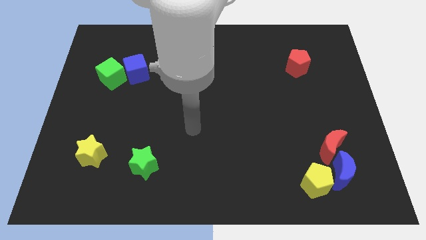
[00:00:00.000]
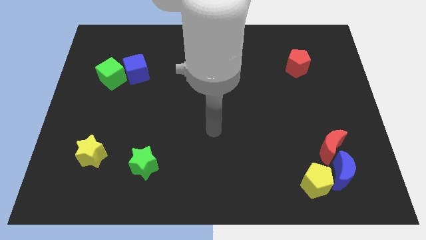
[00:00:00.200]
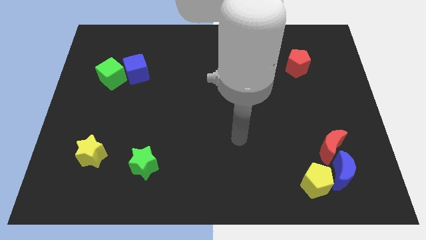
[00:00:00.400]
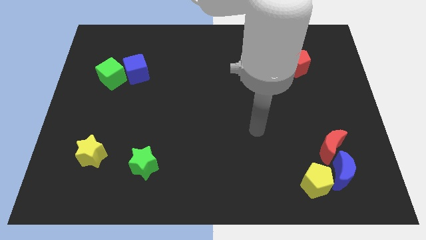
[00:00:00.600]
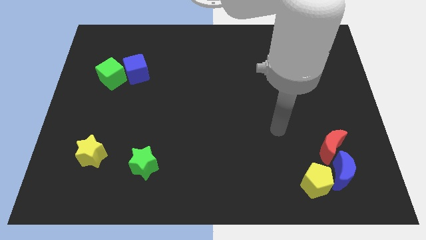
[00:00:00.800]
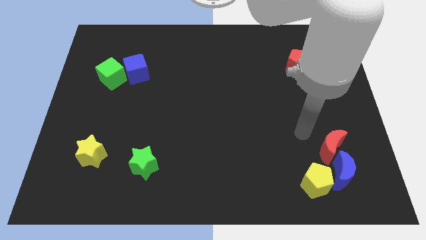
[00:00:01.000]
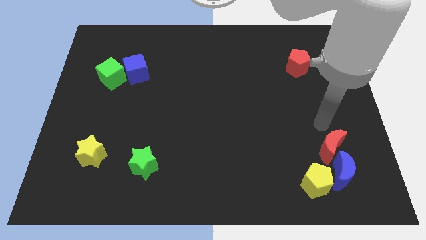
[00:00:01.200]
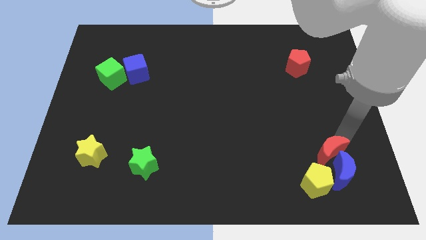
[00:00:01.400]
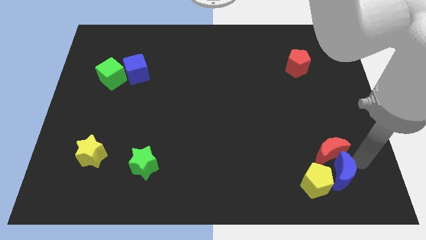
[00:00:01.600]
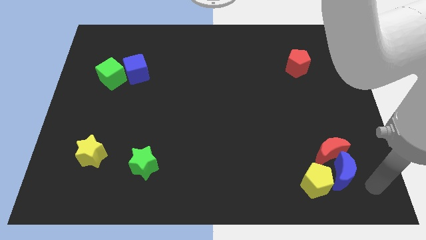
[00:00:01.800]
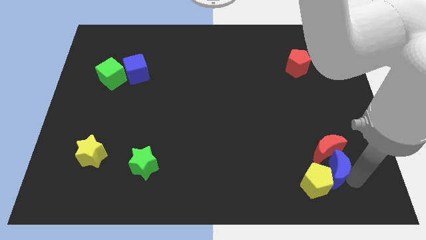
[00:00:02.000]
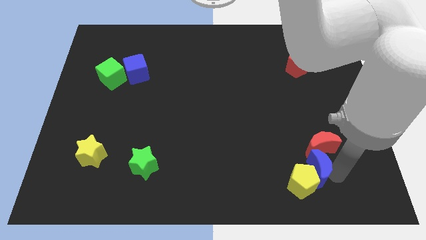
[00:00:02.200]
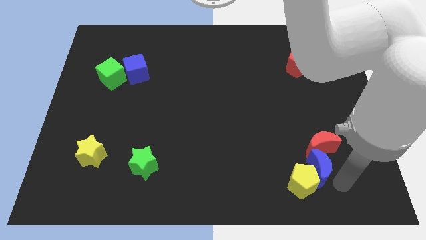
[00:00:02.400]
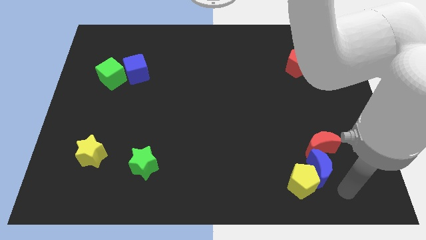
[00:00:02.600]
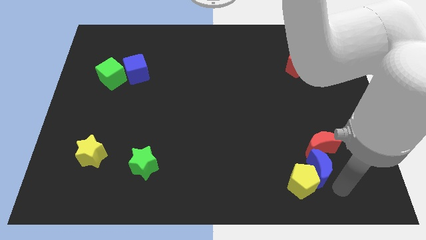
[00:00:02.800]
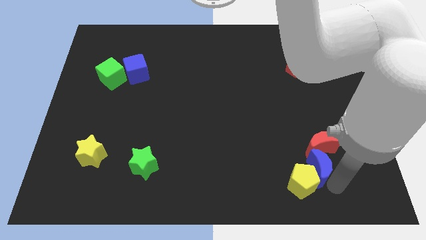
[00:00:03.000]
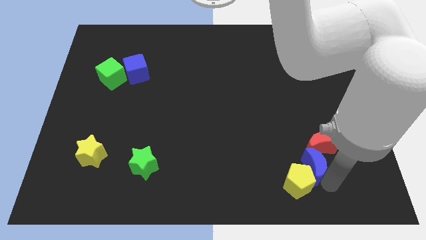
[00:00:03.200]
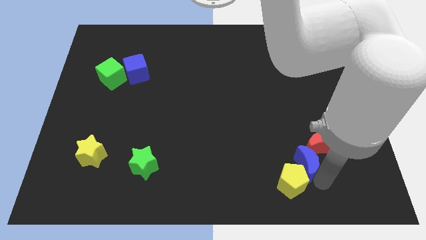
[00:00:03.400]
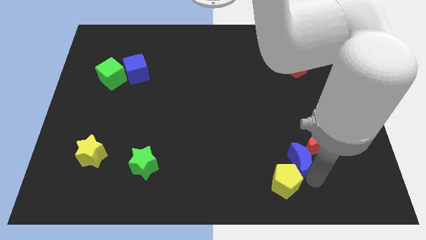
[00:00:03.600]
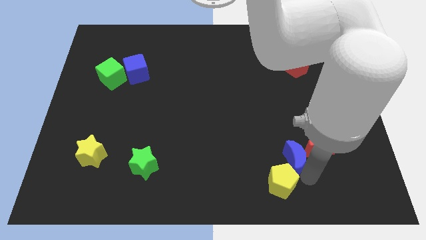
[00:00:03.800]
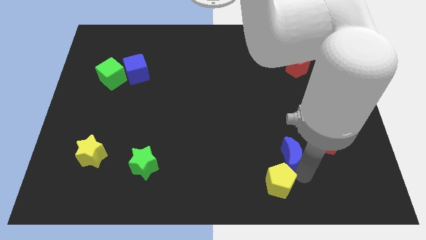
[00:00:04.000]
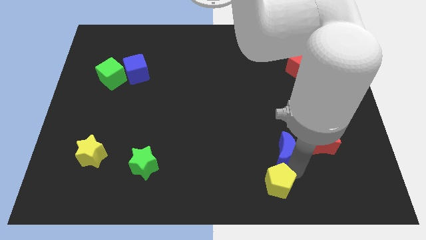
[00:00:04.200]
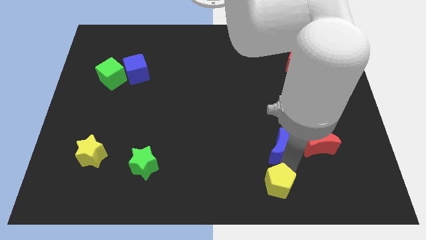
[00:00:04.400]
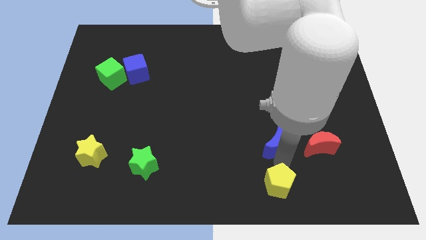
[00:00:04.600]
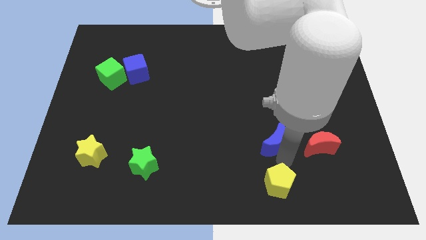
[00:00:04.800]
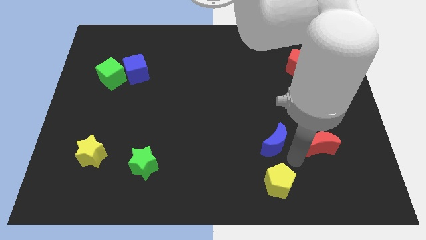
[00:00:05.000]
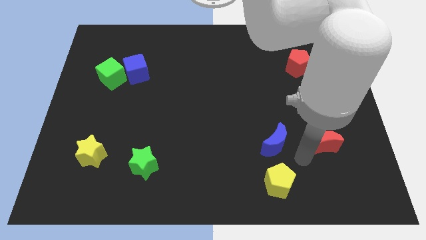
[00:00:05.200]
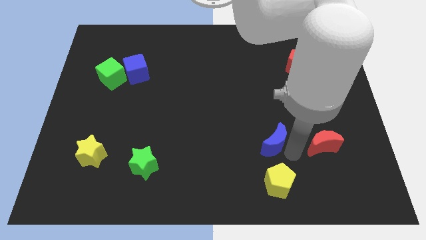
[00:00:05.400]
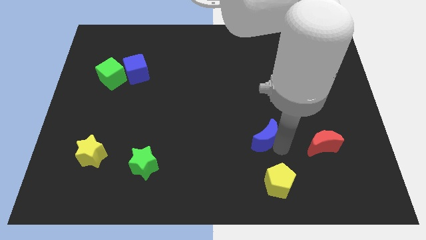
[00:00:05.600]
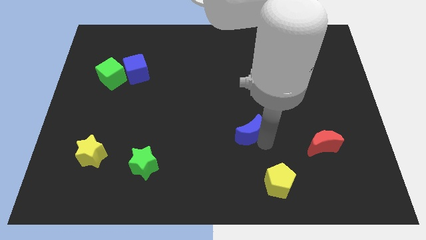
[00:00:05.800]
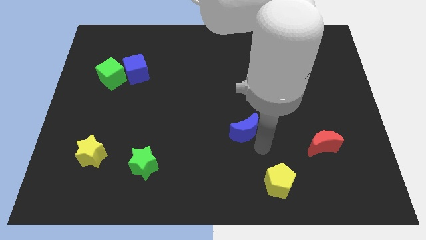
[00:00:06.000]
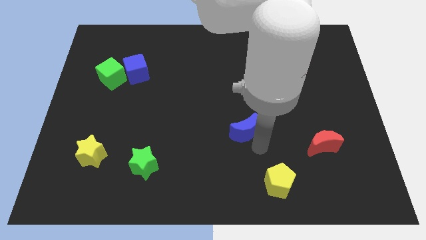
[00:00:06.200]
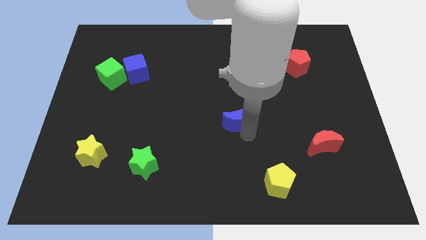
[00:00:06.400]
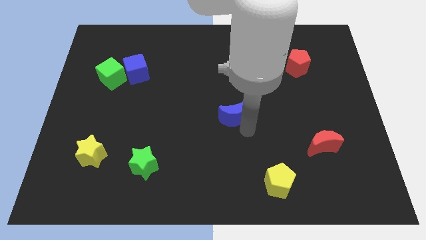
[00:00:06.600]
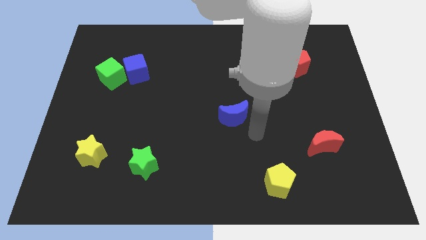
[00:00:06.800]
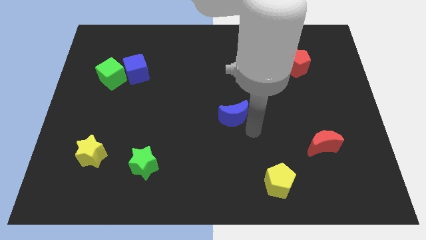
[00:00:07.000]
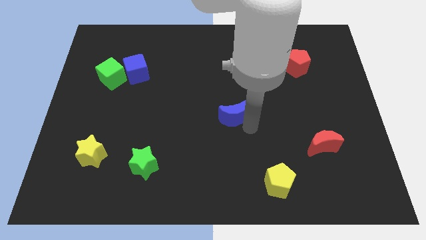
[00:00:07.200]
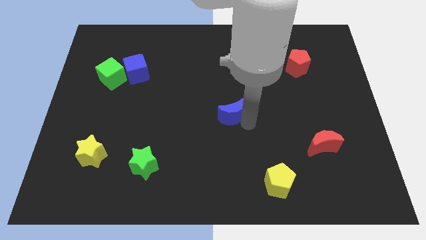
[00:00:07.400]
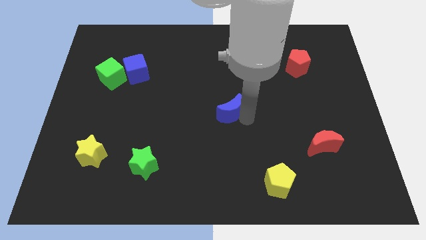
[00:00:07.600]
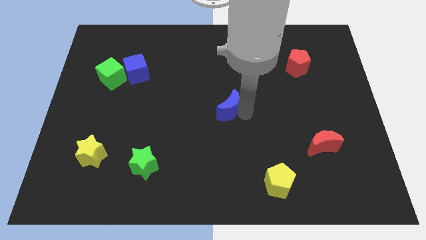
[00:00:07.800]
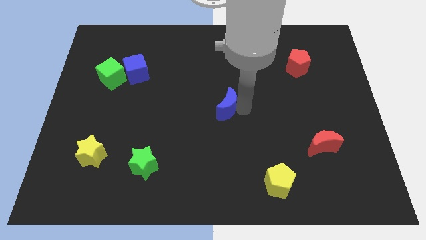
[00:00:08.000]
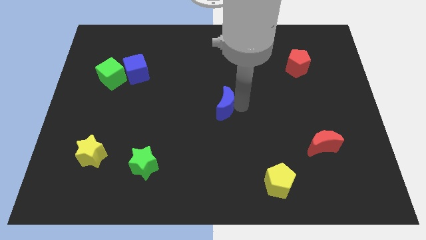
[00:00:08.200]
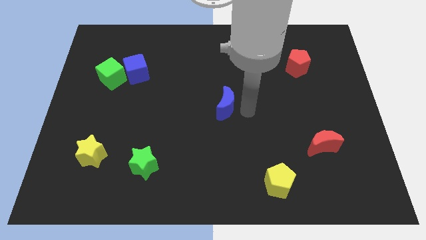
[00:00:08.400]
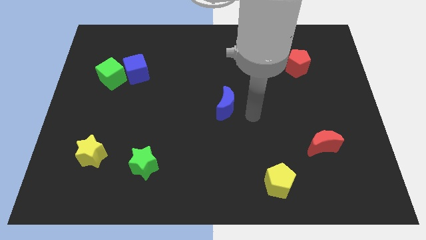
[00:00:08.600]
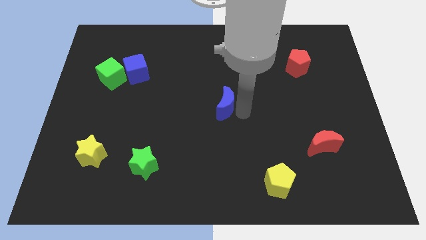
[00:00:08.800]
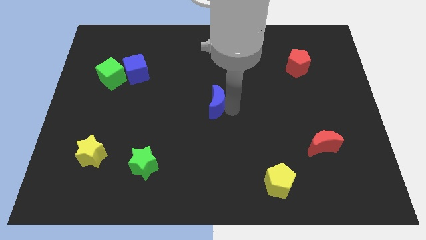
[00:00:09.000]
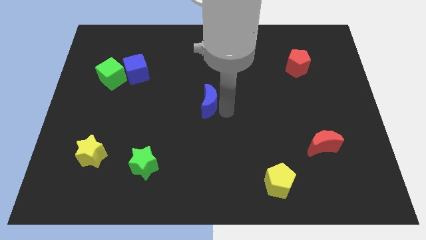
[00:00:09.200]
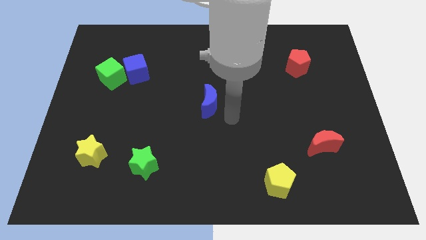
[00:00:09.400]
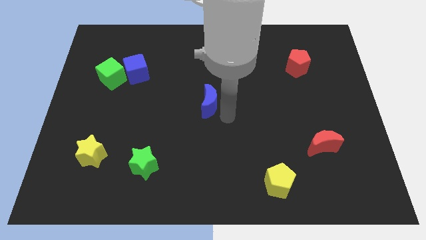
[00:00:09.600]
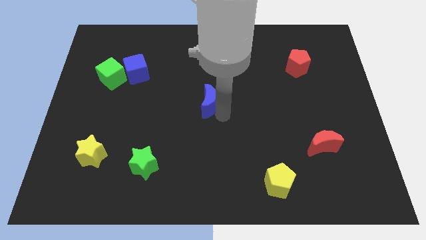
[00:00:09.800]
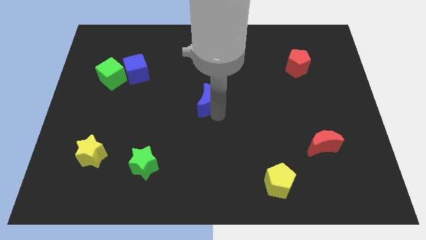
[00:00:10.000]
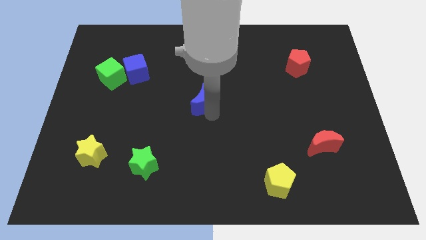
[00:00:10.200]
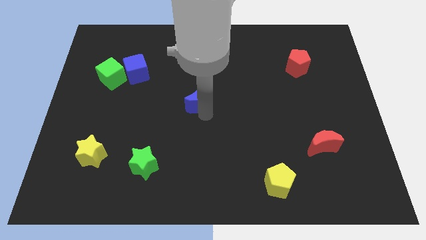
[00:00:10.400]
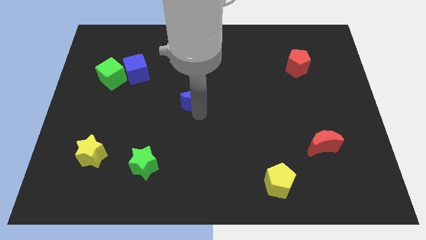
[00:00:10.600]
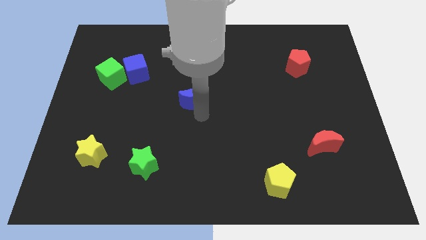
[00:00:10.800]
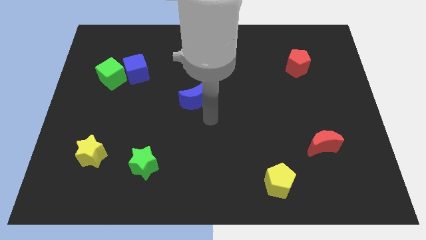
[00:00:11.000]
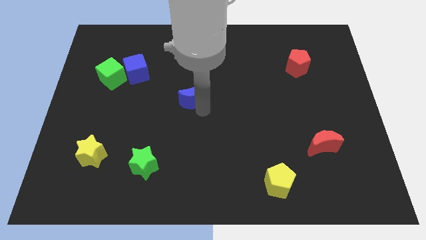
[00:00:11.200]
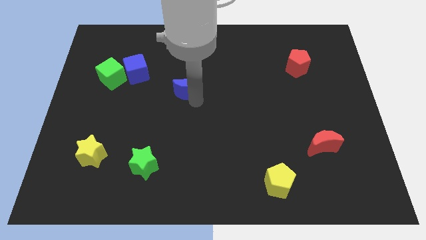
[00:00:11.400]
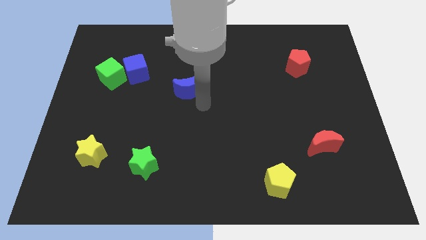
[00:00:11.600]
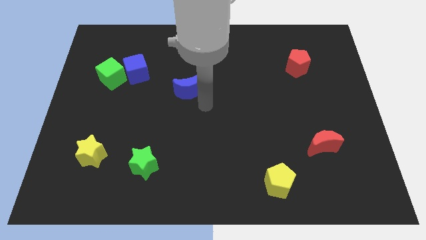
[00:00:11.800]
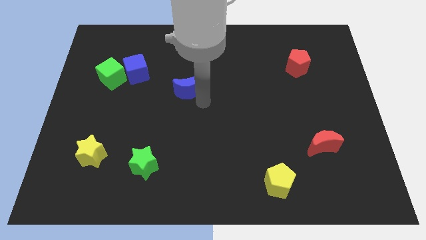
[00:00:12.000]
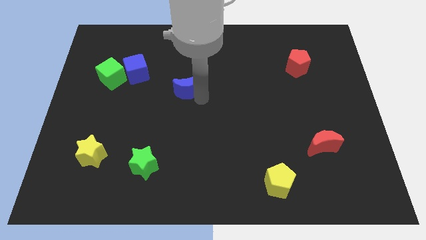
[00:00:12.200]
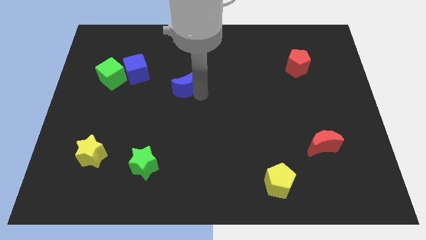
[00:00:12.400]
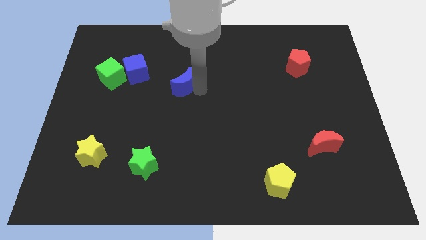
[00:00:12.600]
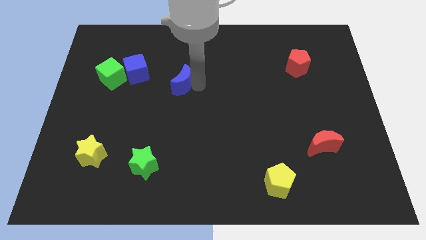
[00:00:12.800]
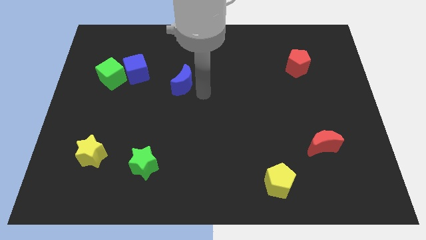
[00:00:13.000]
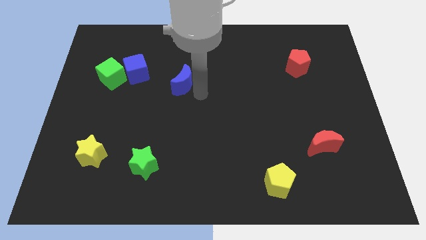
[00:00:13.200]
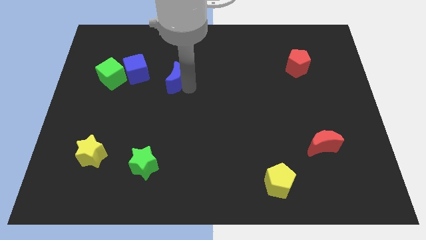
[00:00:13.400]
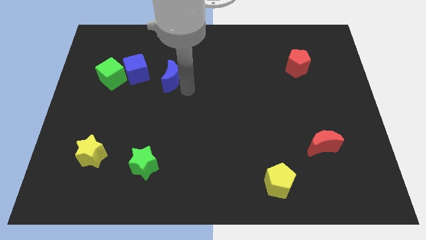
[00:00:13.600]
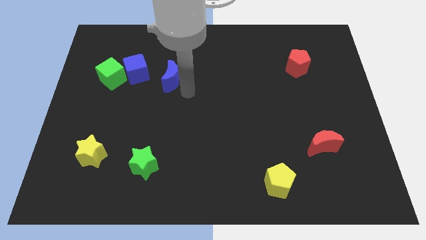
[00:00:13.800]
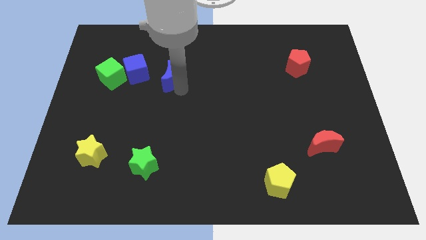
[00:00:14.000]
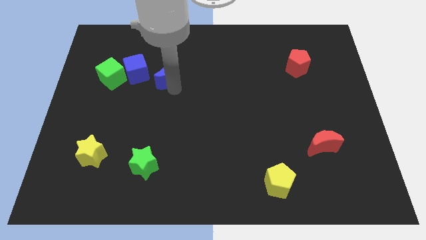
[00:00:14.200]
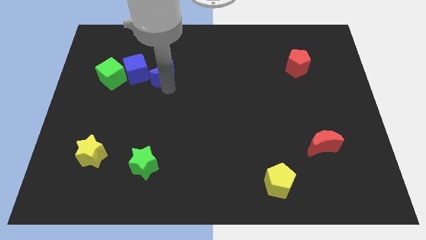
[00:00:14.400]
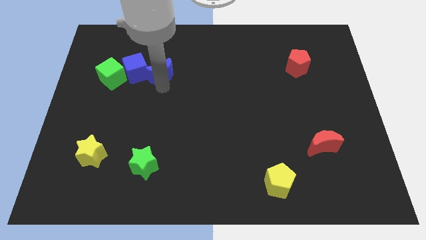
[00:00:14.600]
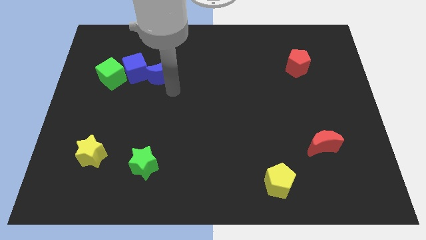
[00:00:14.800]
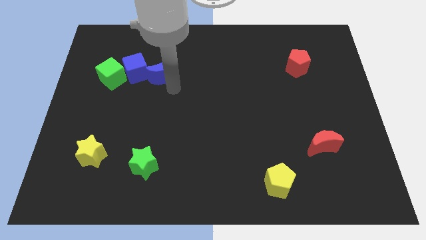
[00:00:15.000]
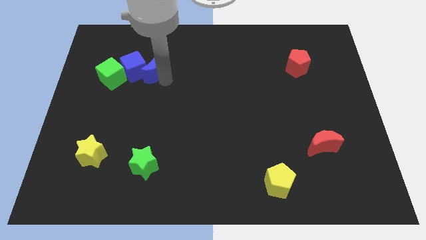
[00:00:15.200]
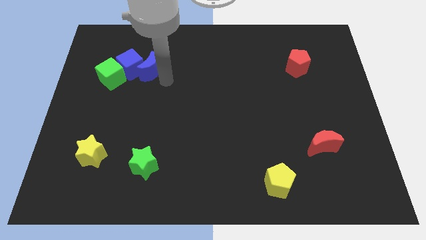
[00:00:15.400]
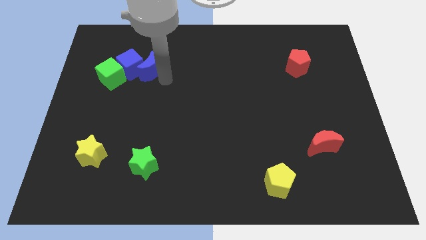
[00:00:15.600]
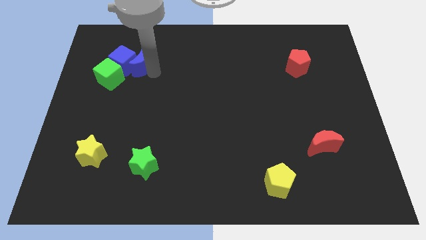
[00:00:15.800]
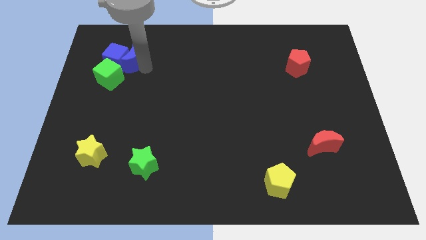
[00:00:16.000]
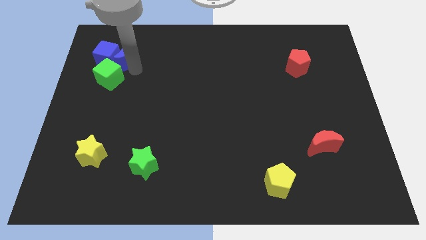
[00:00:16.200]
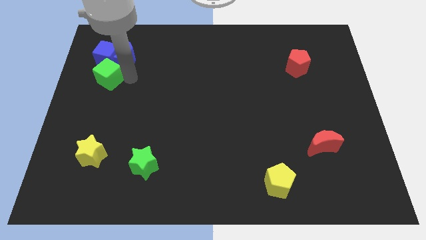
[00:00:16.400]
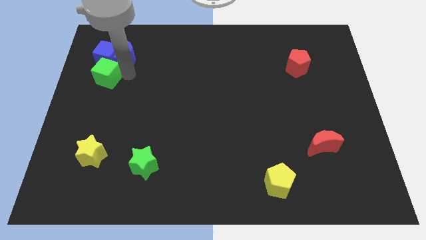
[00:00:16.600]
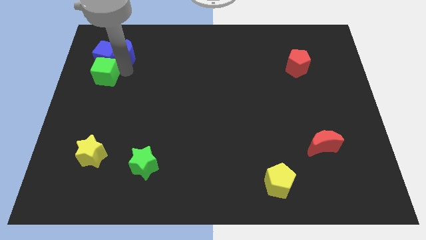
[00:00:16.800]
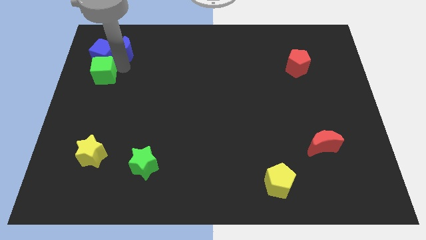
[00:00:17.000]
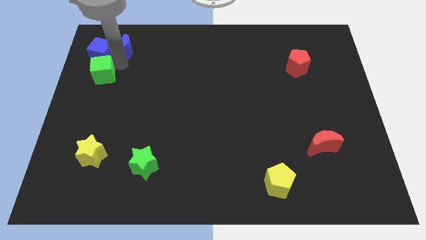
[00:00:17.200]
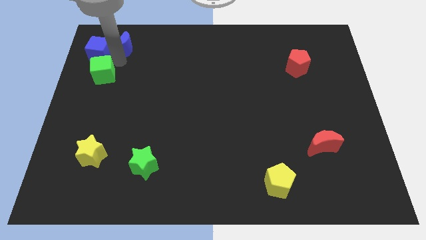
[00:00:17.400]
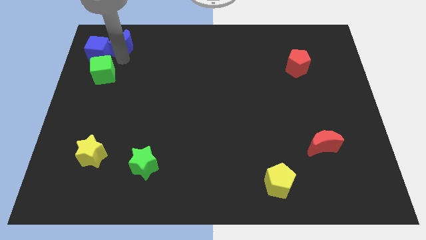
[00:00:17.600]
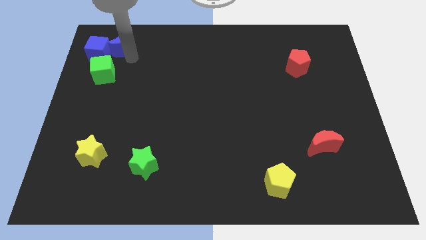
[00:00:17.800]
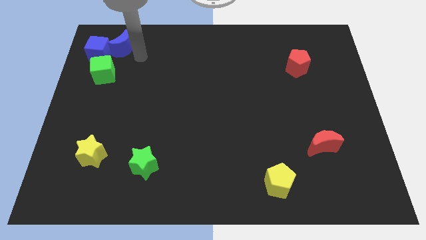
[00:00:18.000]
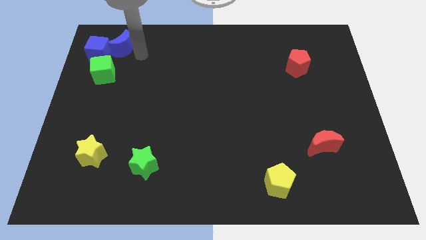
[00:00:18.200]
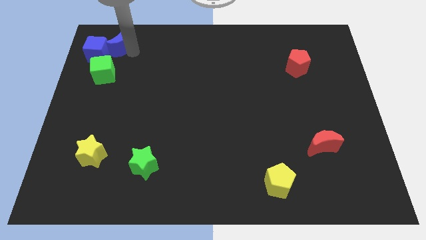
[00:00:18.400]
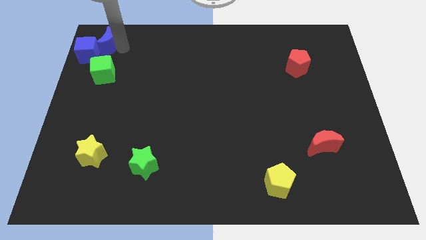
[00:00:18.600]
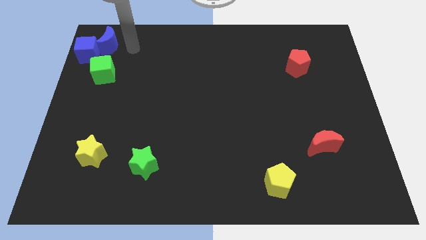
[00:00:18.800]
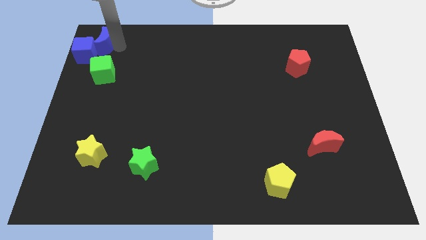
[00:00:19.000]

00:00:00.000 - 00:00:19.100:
push the blue moon to the top left of the board
